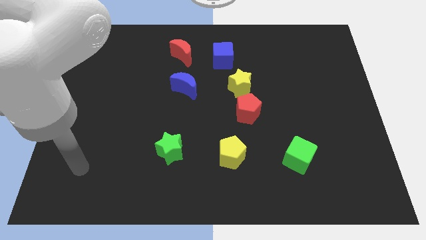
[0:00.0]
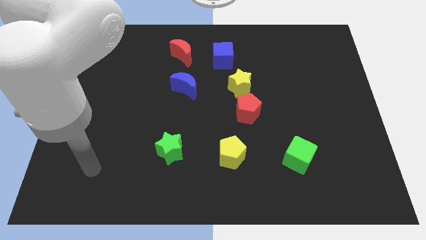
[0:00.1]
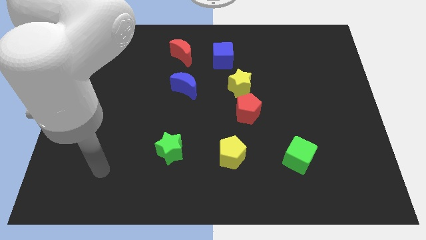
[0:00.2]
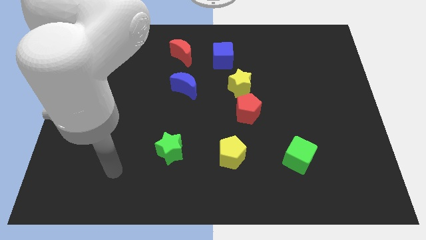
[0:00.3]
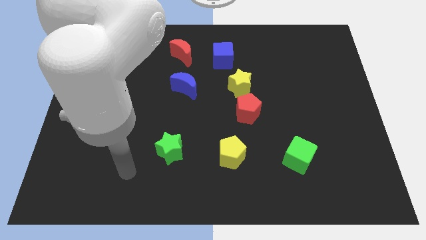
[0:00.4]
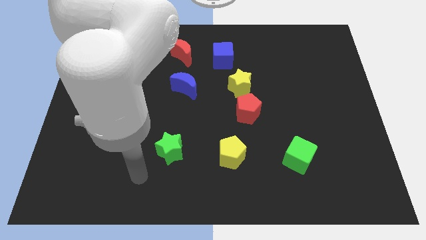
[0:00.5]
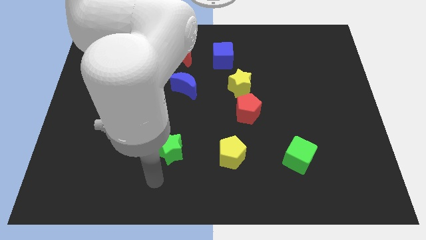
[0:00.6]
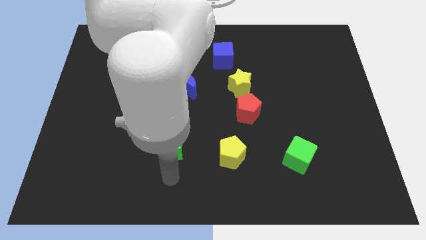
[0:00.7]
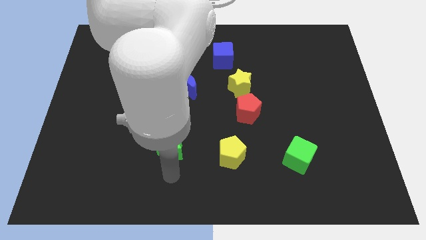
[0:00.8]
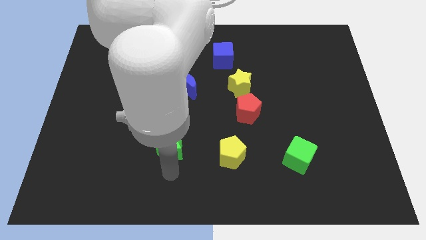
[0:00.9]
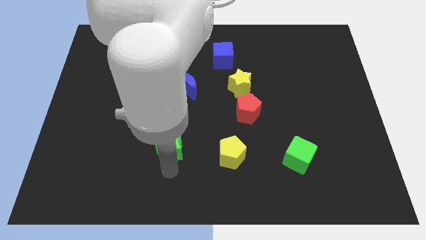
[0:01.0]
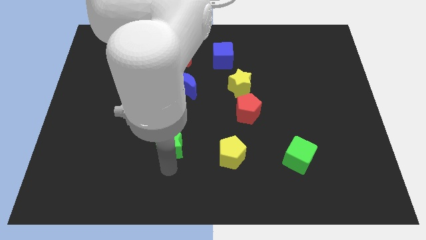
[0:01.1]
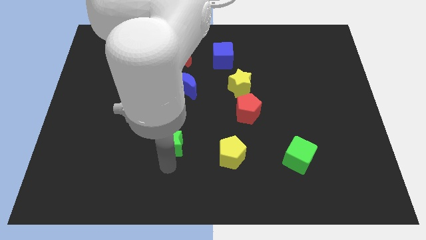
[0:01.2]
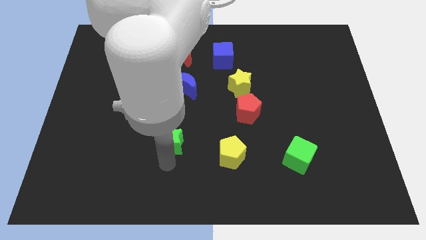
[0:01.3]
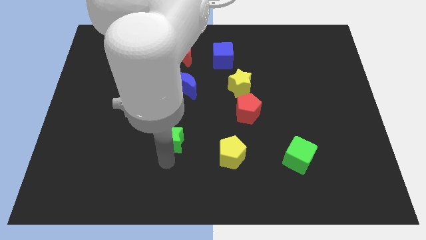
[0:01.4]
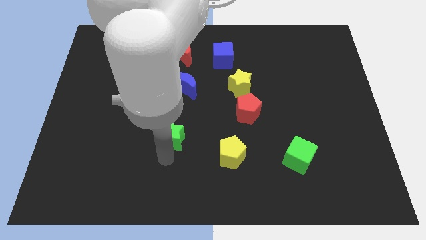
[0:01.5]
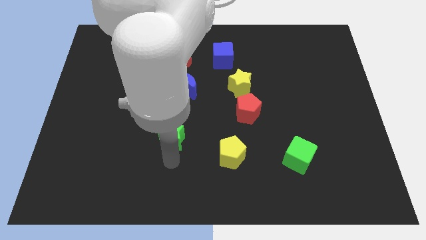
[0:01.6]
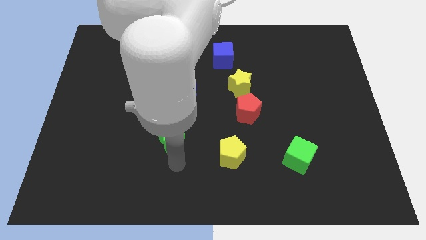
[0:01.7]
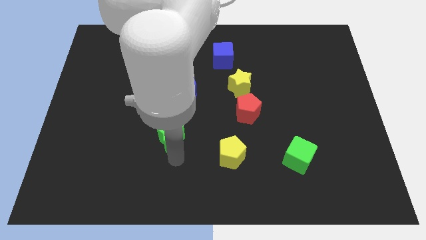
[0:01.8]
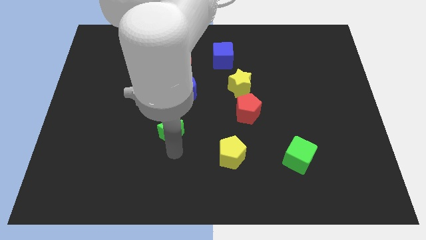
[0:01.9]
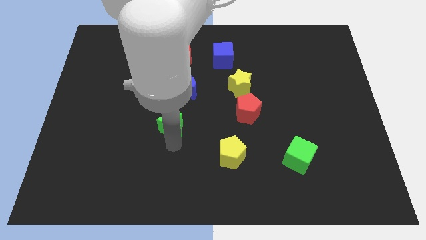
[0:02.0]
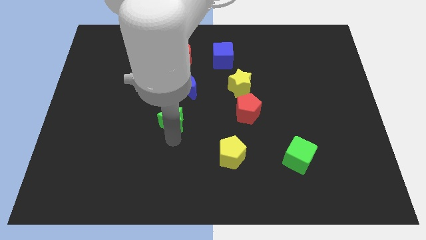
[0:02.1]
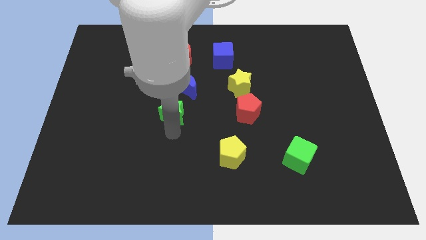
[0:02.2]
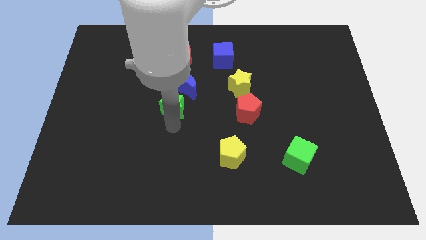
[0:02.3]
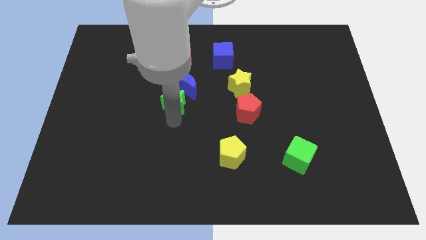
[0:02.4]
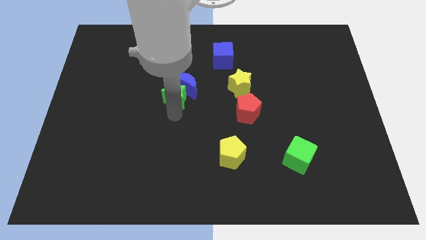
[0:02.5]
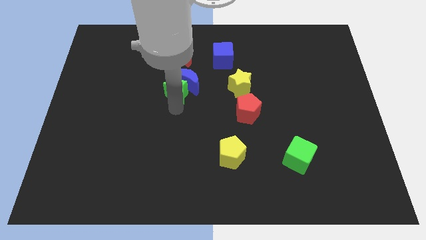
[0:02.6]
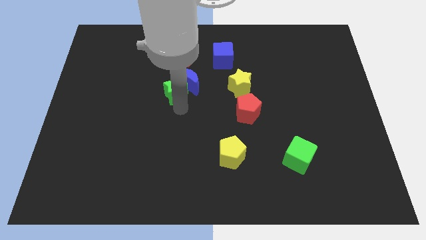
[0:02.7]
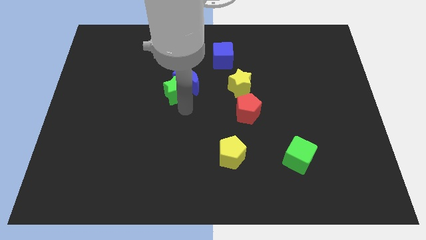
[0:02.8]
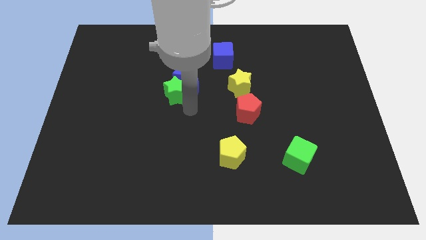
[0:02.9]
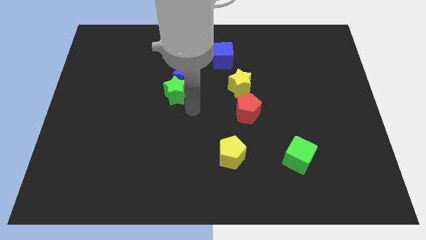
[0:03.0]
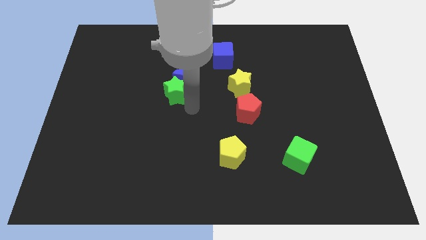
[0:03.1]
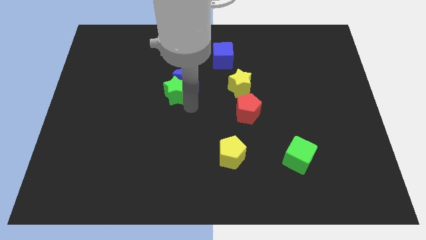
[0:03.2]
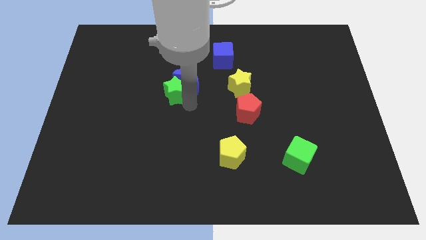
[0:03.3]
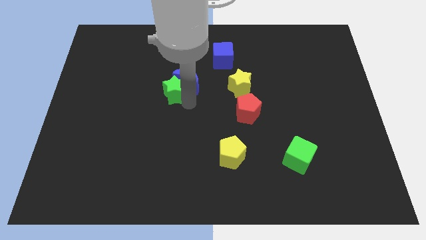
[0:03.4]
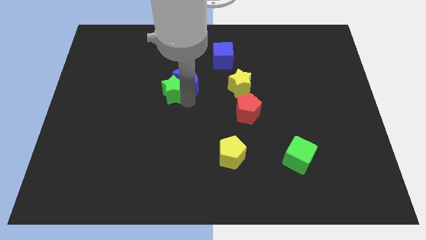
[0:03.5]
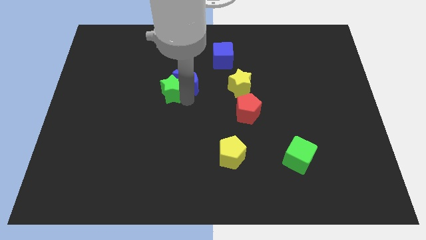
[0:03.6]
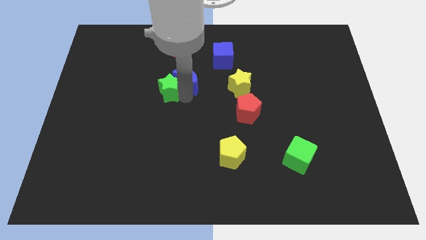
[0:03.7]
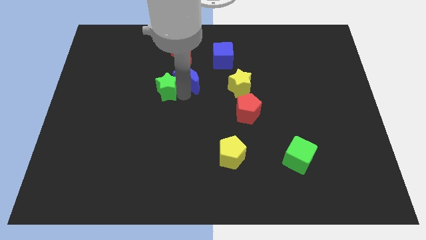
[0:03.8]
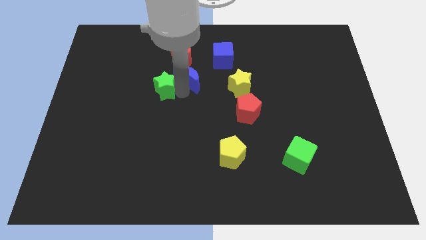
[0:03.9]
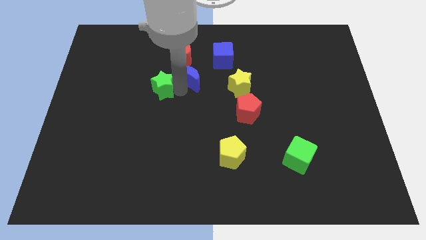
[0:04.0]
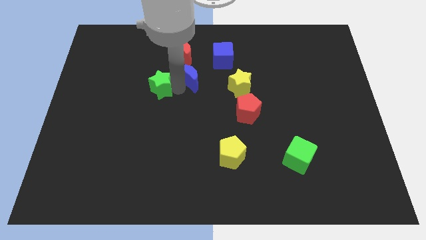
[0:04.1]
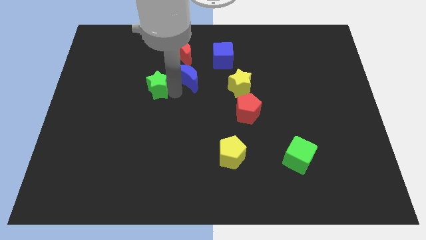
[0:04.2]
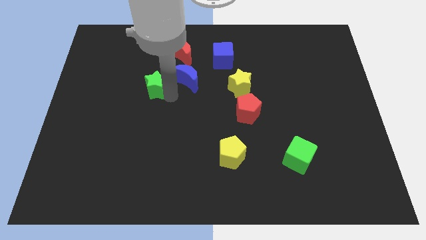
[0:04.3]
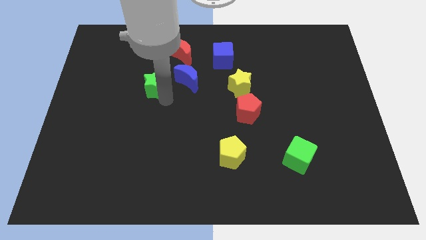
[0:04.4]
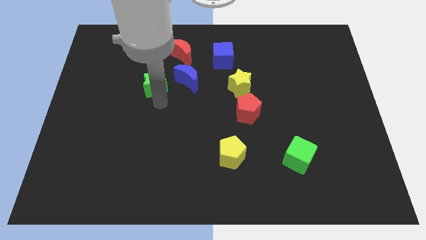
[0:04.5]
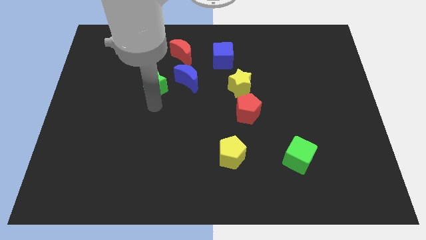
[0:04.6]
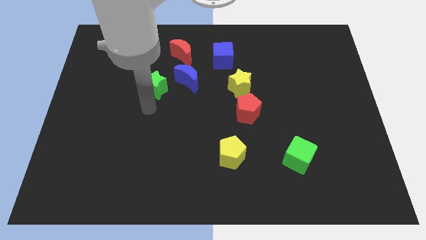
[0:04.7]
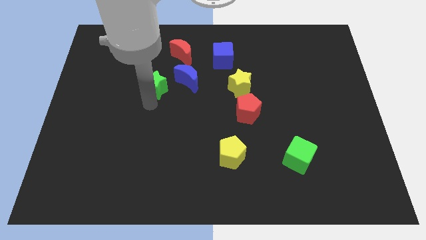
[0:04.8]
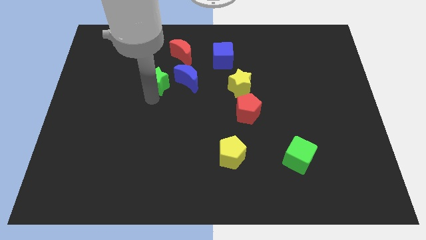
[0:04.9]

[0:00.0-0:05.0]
move the green star to the bottom left side of the red moon

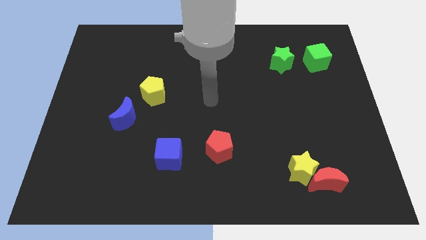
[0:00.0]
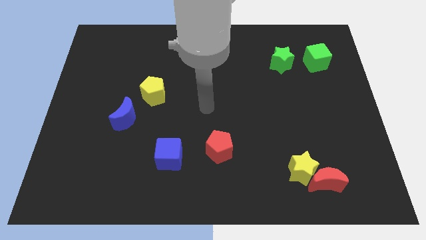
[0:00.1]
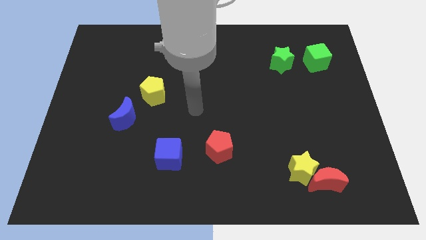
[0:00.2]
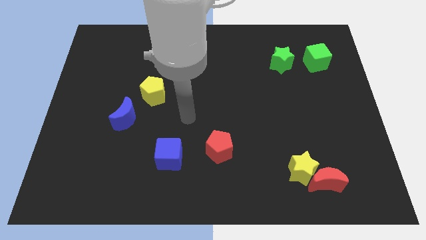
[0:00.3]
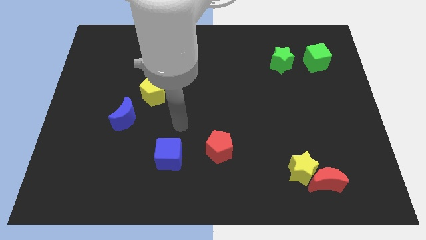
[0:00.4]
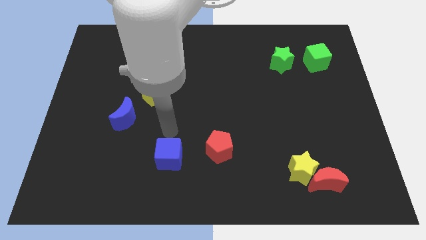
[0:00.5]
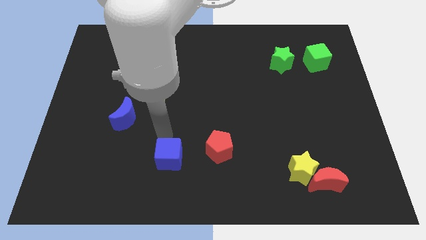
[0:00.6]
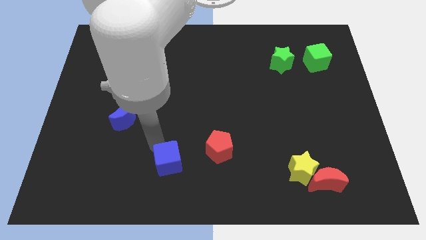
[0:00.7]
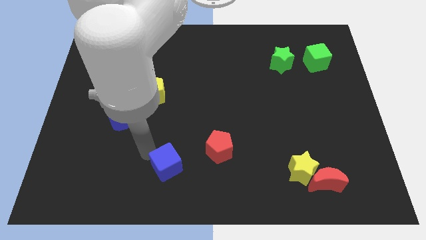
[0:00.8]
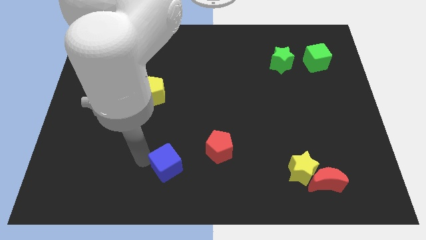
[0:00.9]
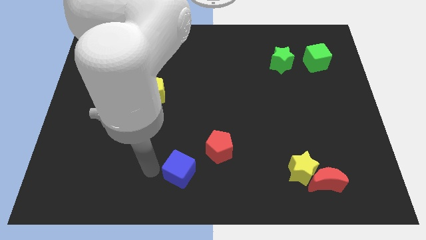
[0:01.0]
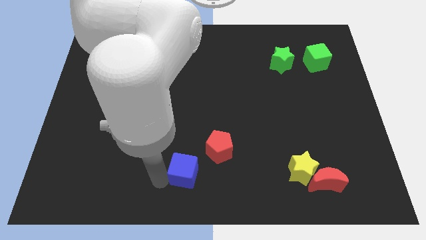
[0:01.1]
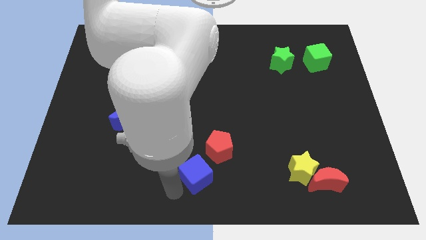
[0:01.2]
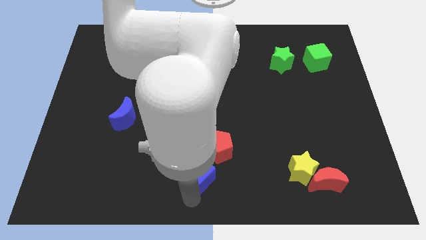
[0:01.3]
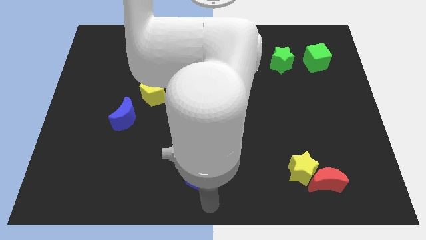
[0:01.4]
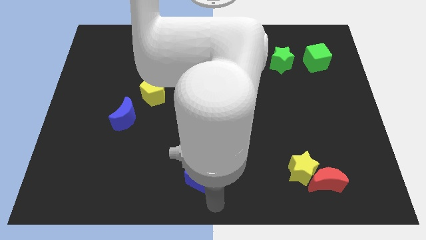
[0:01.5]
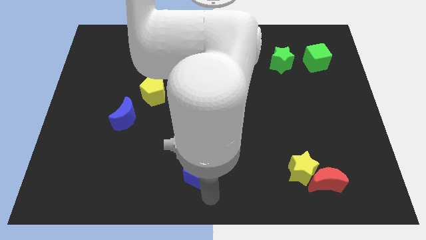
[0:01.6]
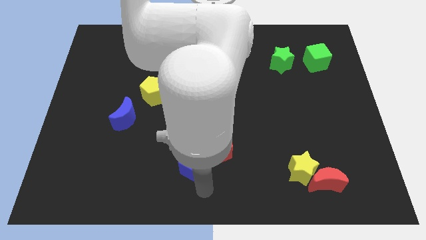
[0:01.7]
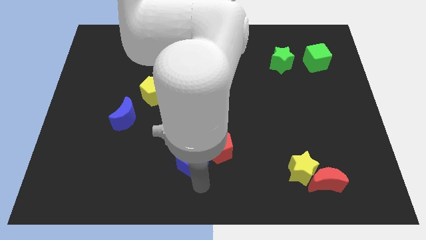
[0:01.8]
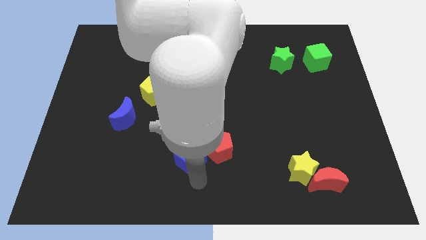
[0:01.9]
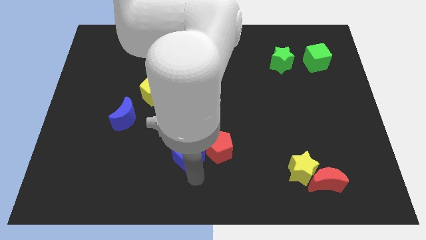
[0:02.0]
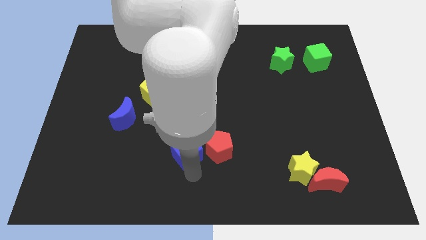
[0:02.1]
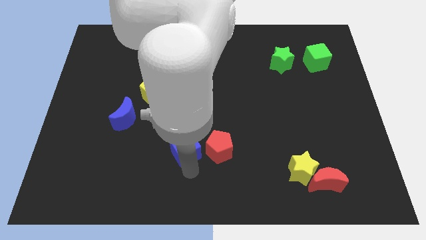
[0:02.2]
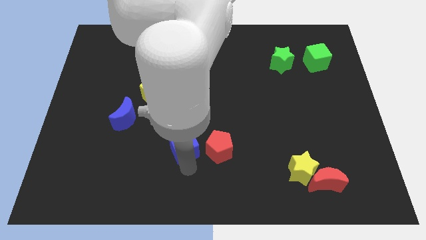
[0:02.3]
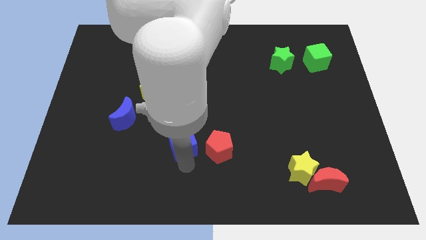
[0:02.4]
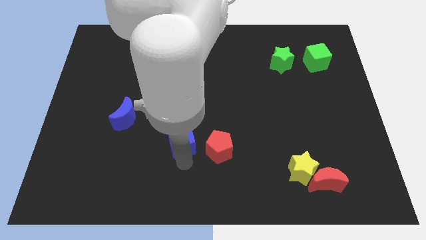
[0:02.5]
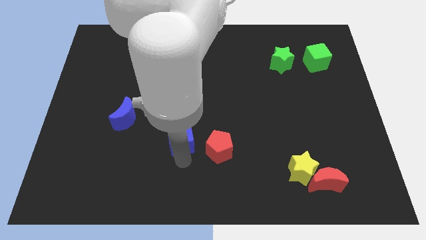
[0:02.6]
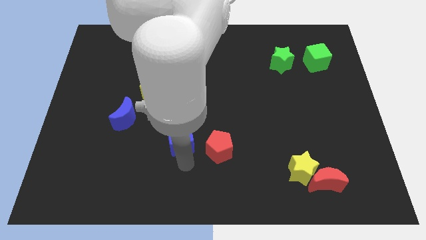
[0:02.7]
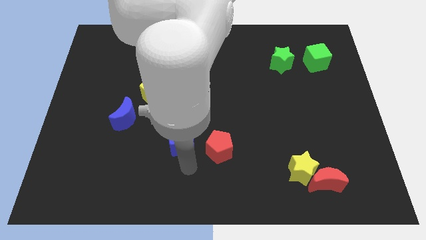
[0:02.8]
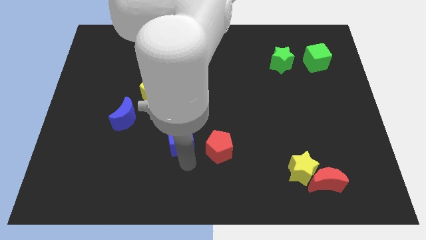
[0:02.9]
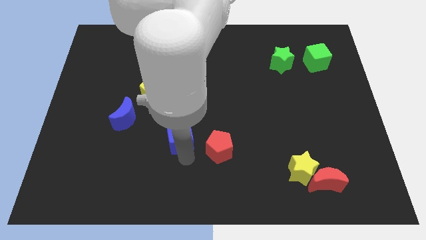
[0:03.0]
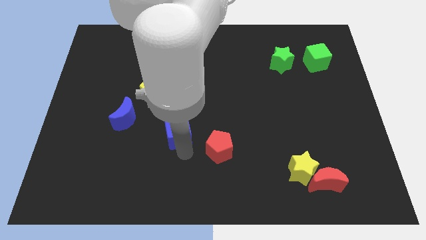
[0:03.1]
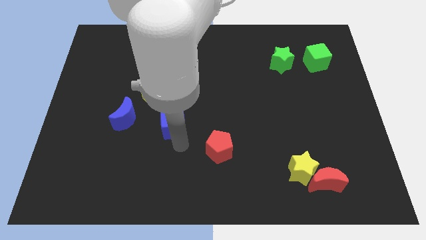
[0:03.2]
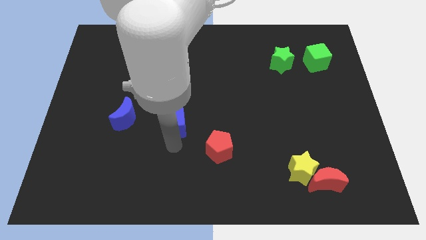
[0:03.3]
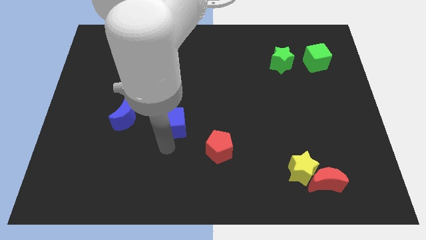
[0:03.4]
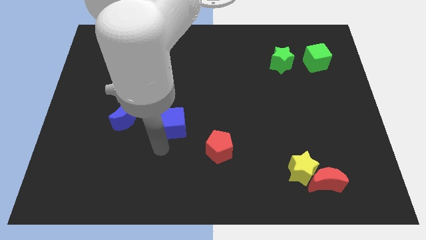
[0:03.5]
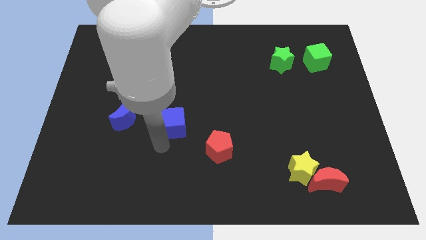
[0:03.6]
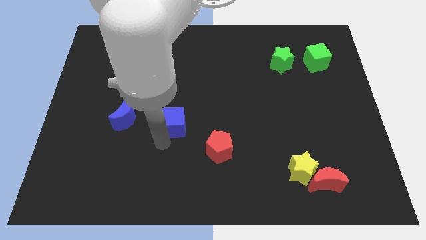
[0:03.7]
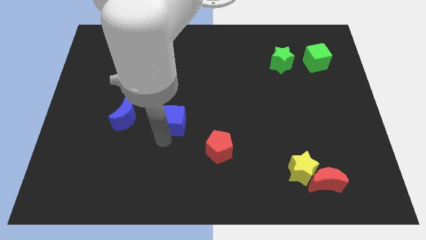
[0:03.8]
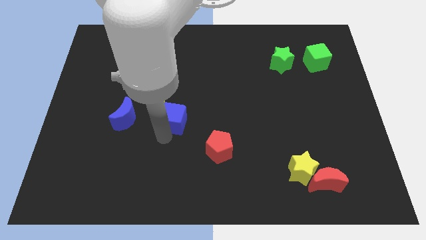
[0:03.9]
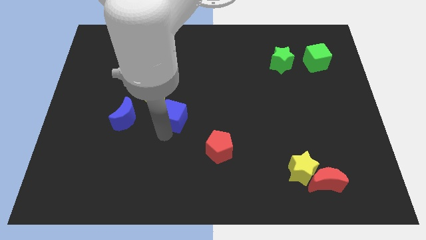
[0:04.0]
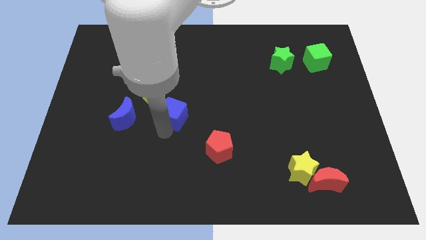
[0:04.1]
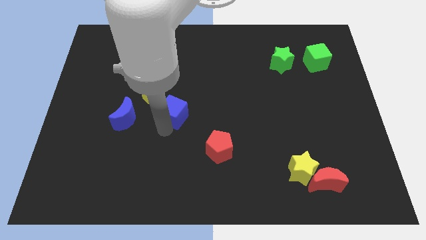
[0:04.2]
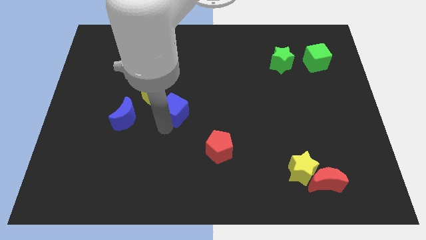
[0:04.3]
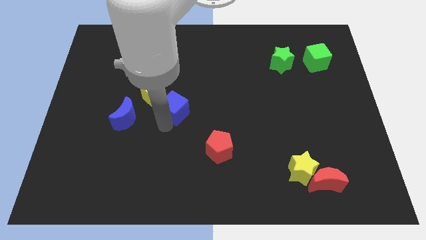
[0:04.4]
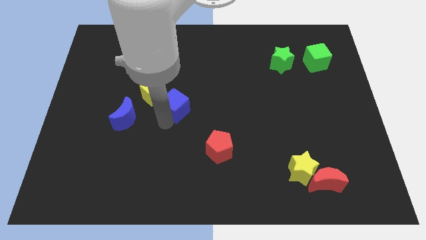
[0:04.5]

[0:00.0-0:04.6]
slide the blue cube to the right side of the yellow pentagon
